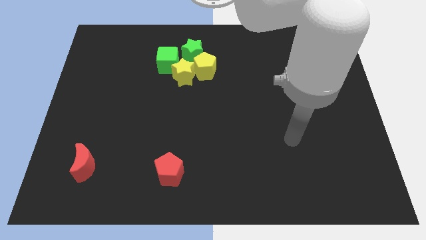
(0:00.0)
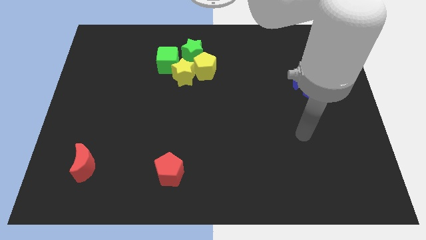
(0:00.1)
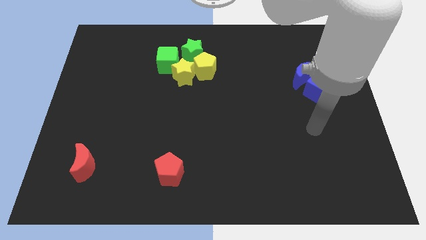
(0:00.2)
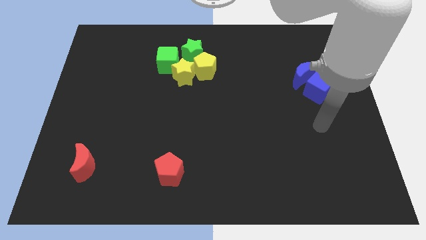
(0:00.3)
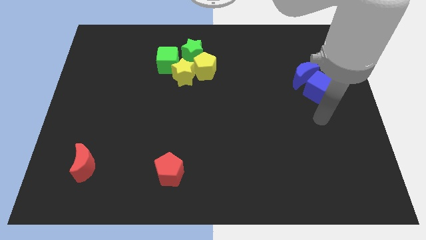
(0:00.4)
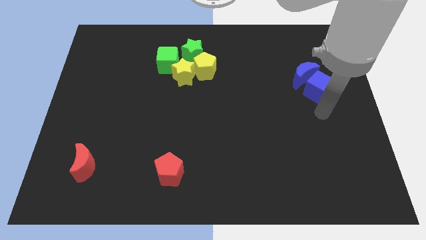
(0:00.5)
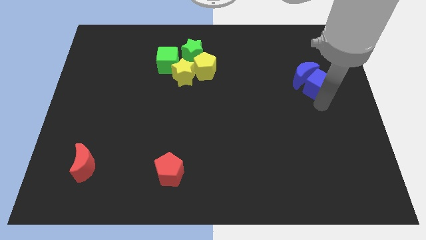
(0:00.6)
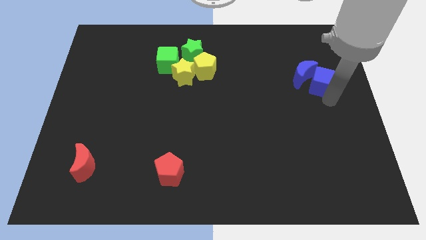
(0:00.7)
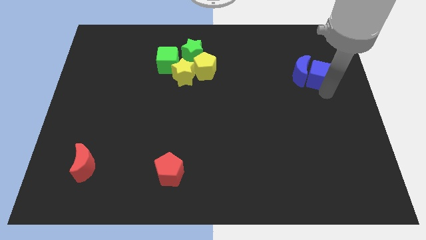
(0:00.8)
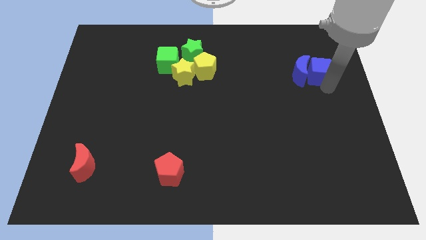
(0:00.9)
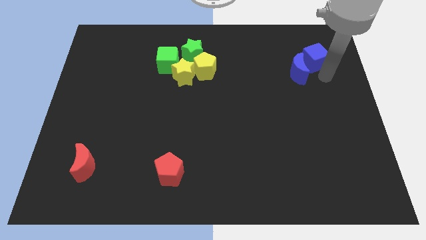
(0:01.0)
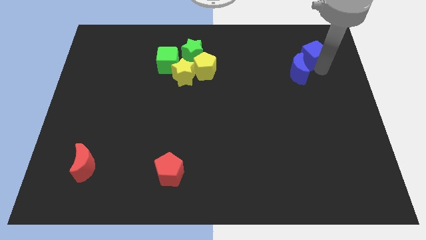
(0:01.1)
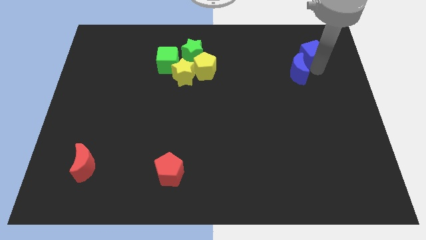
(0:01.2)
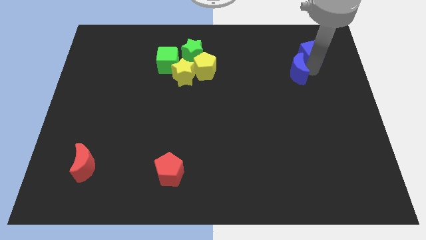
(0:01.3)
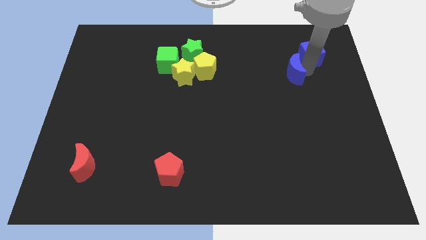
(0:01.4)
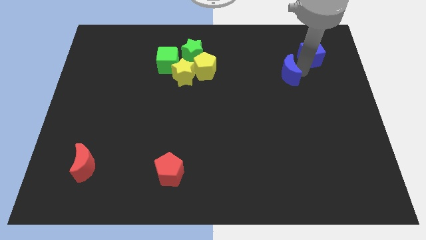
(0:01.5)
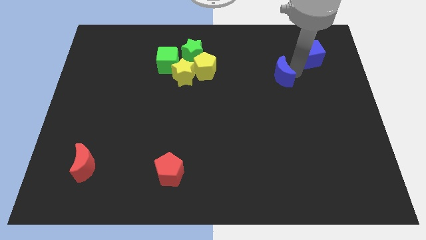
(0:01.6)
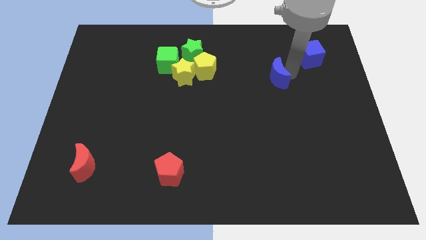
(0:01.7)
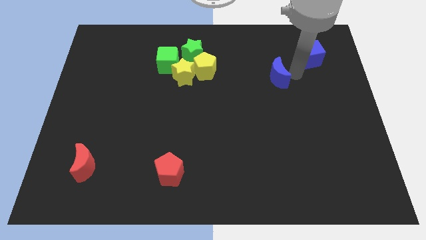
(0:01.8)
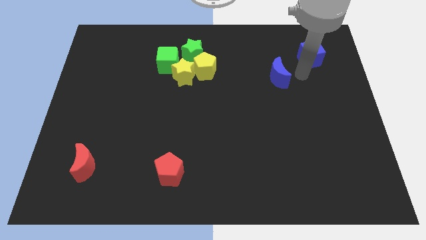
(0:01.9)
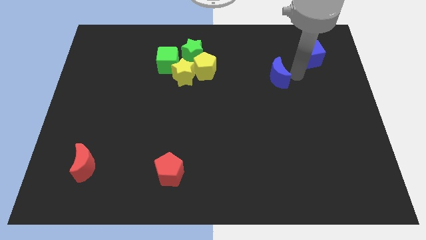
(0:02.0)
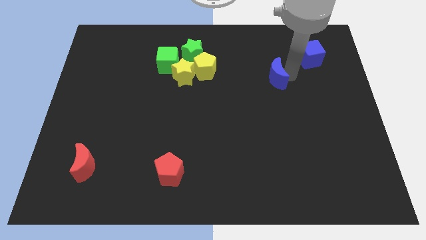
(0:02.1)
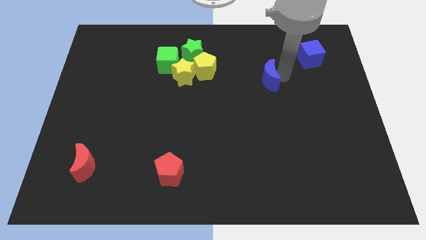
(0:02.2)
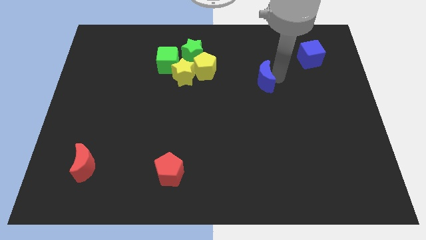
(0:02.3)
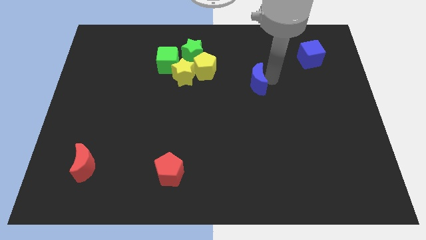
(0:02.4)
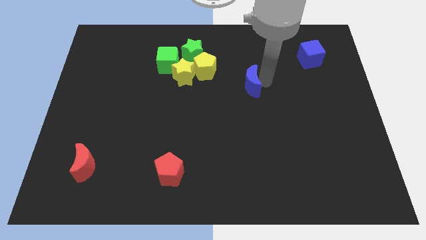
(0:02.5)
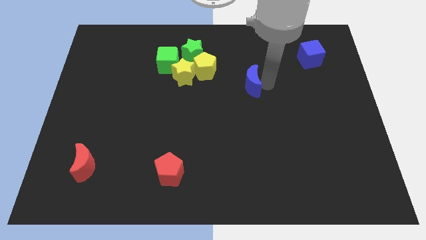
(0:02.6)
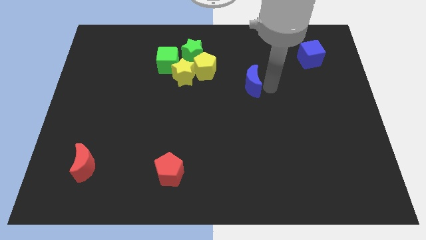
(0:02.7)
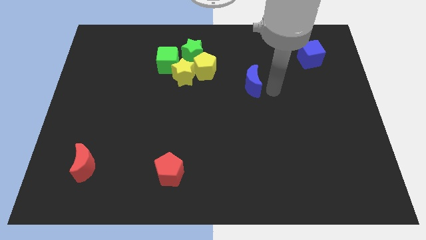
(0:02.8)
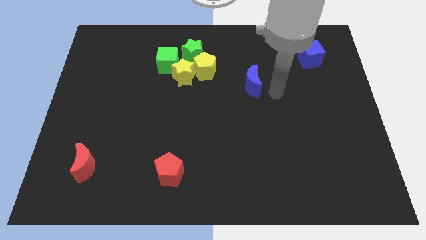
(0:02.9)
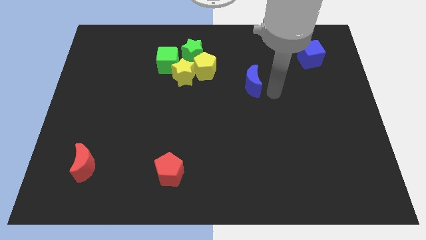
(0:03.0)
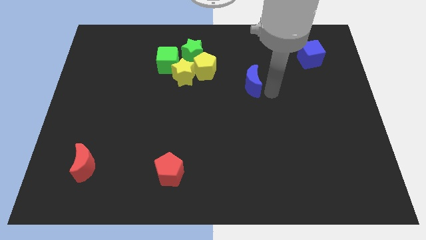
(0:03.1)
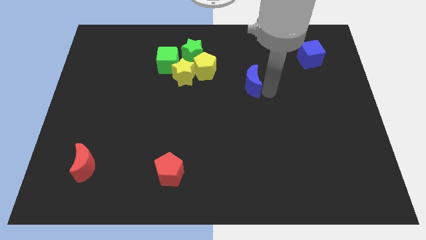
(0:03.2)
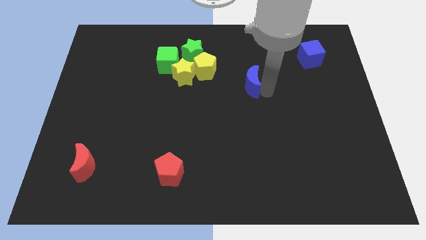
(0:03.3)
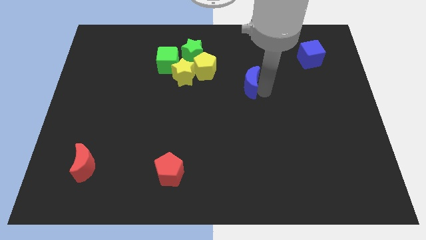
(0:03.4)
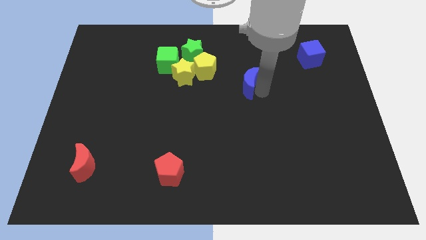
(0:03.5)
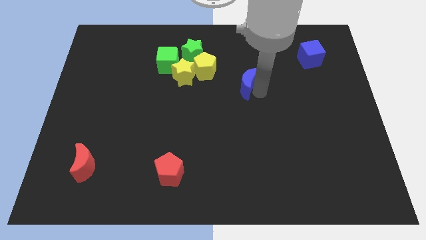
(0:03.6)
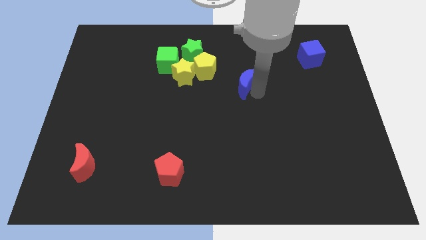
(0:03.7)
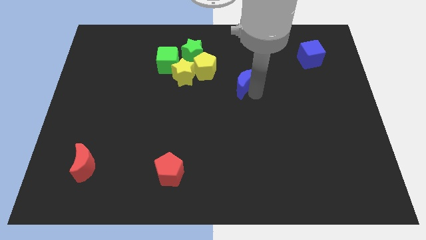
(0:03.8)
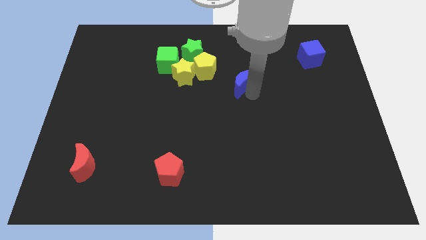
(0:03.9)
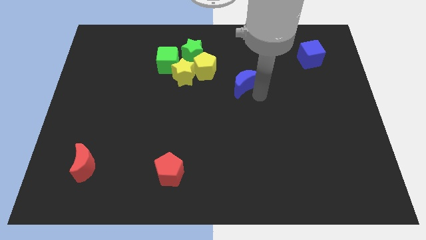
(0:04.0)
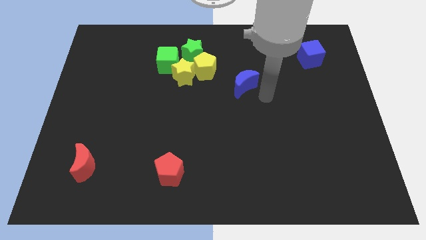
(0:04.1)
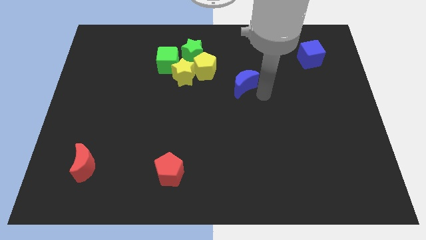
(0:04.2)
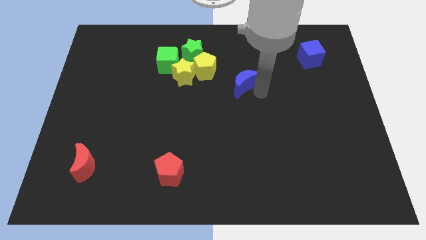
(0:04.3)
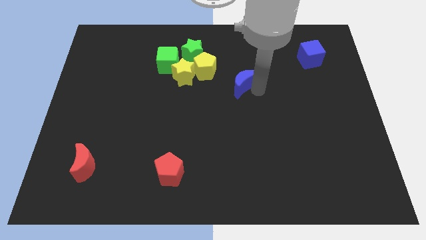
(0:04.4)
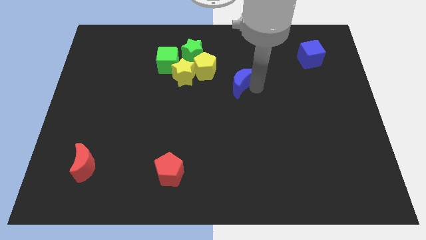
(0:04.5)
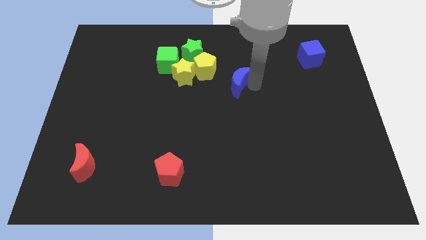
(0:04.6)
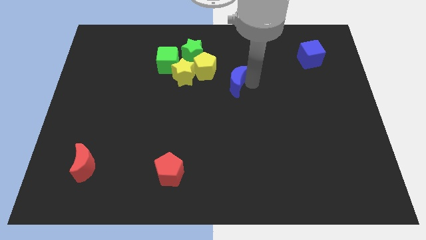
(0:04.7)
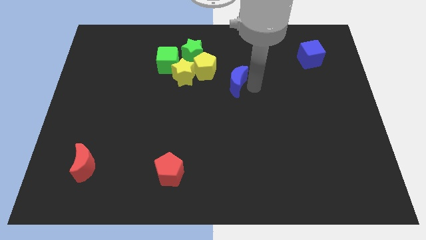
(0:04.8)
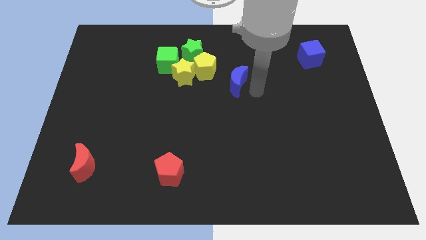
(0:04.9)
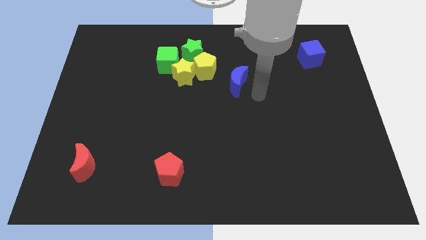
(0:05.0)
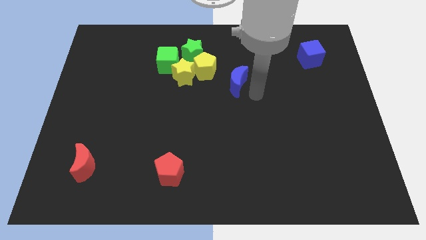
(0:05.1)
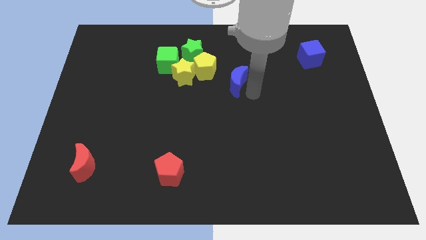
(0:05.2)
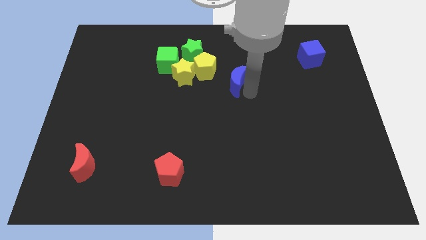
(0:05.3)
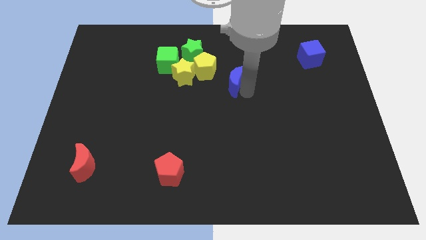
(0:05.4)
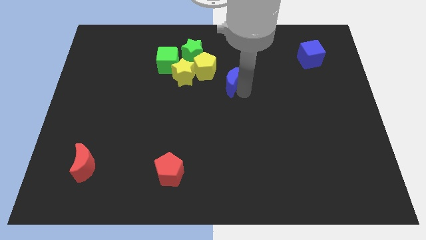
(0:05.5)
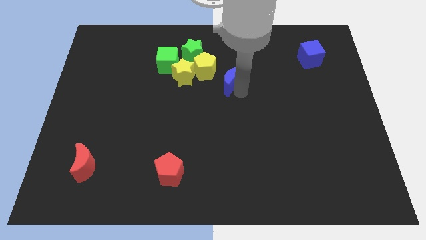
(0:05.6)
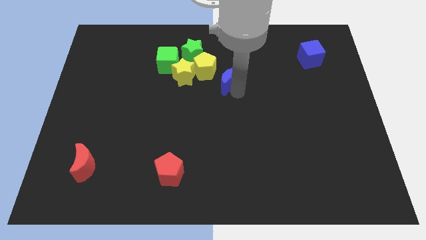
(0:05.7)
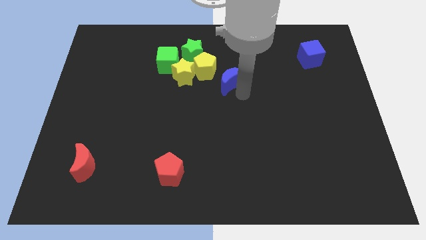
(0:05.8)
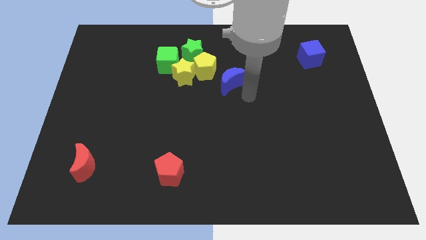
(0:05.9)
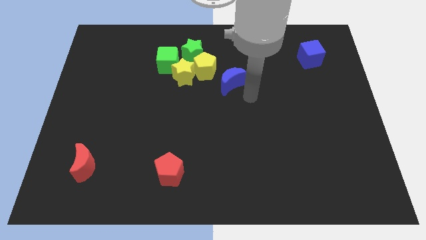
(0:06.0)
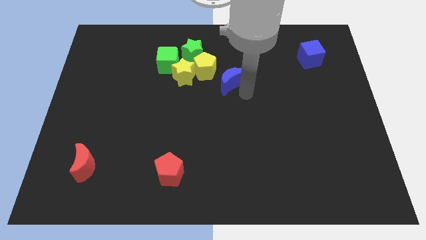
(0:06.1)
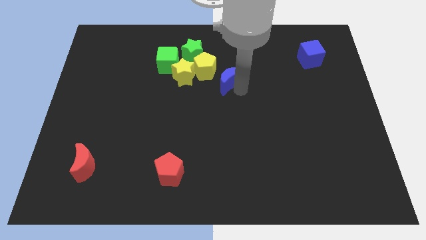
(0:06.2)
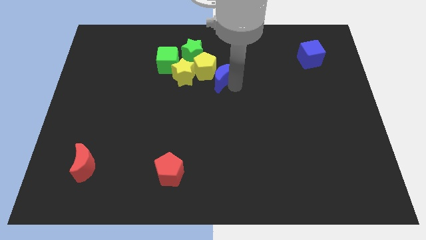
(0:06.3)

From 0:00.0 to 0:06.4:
push the blue moon diagonally down and to the right of the green star

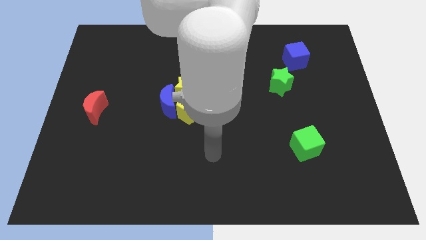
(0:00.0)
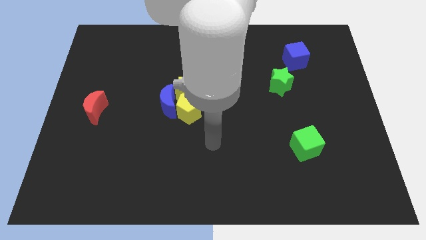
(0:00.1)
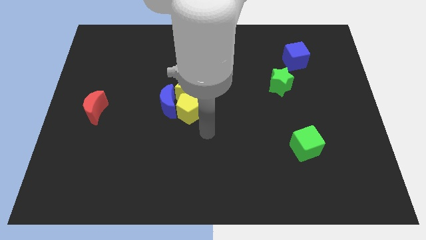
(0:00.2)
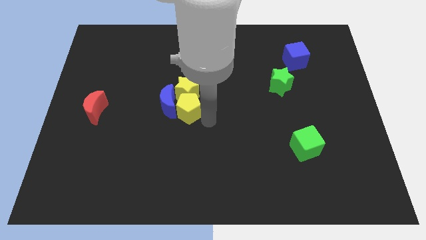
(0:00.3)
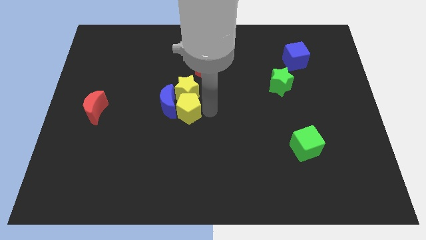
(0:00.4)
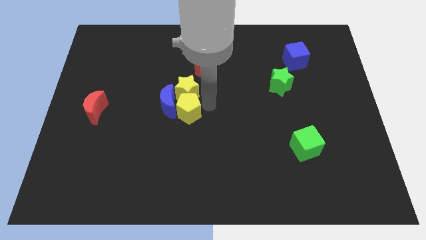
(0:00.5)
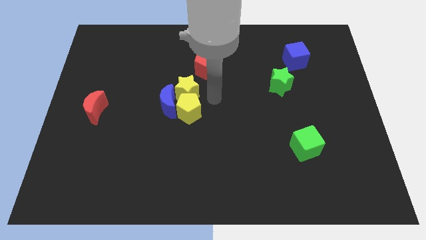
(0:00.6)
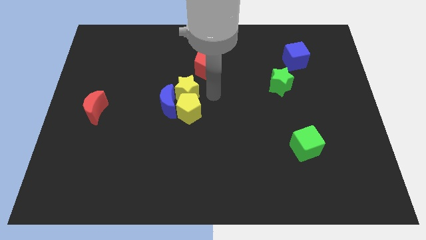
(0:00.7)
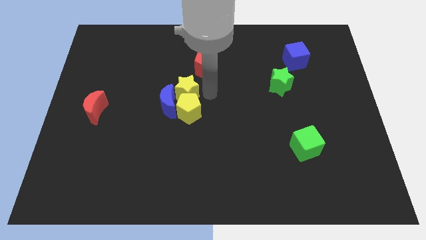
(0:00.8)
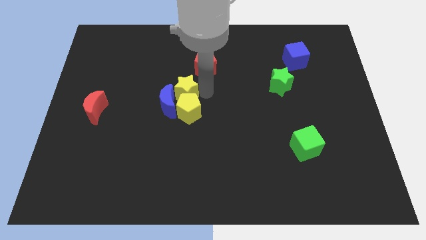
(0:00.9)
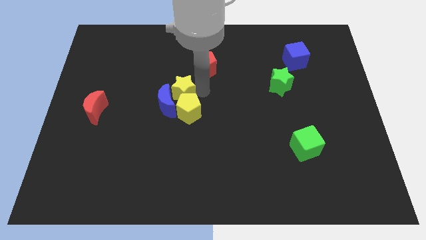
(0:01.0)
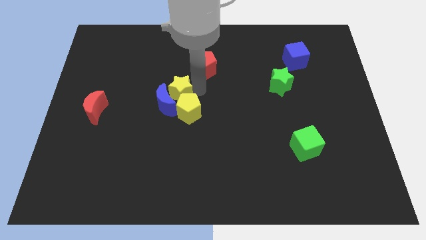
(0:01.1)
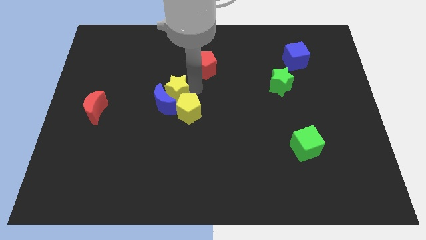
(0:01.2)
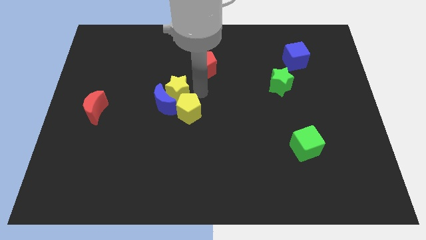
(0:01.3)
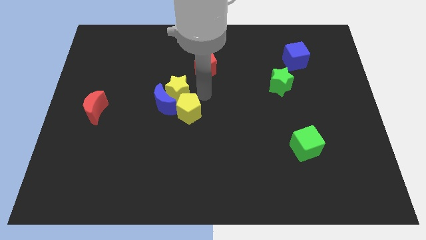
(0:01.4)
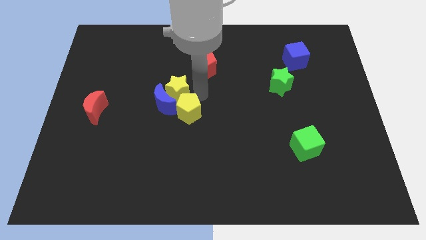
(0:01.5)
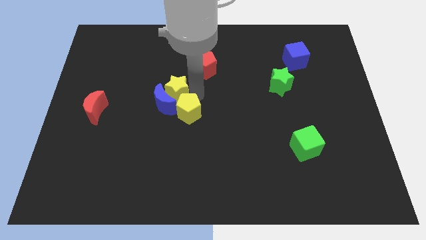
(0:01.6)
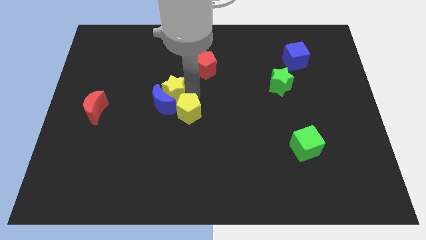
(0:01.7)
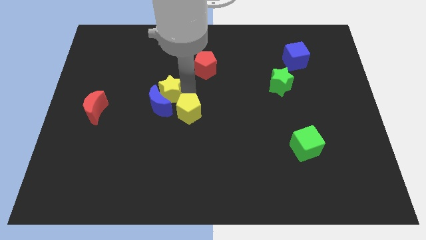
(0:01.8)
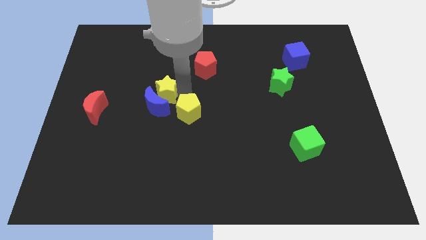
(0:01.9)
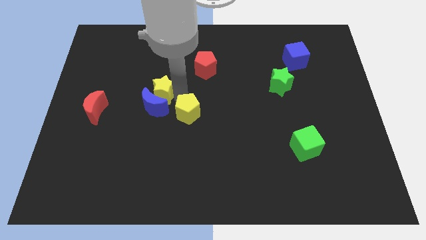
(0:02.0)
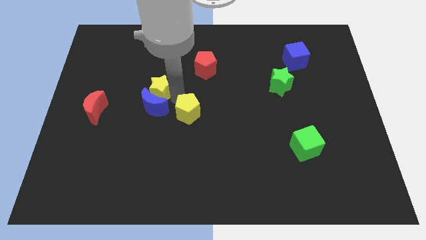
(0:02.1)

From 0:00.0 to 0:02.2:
put the yellow star diagonally up and to the left of the blue moon

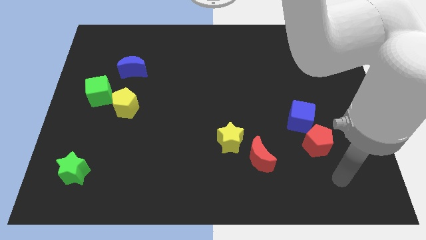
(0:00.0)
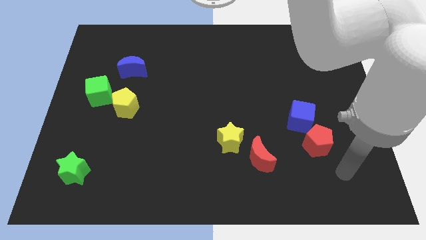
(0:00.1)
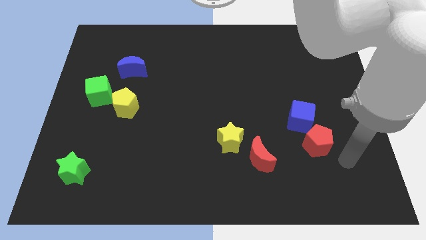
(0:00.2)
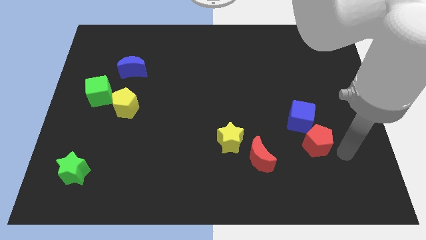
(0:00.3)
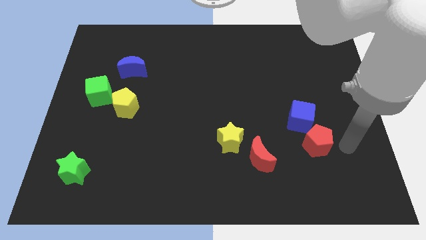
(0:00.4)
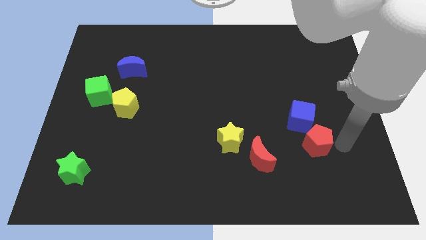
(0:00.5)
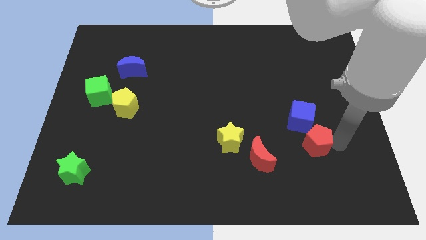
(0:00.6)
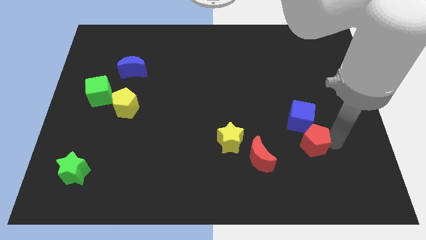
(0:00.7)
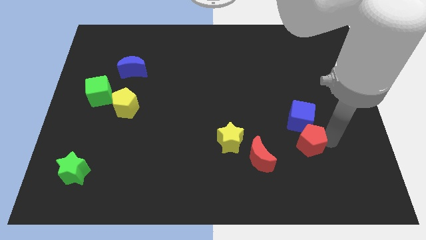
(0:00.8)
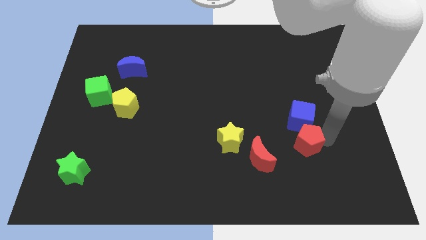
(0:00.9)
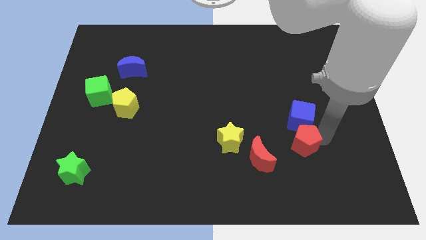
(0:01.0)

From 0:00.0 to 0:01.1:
slide the red pentagon to the right of the yellow star
